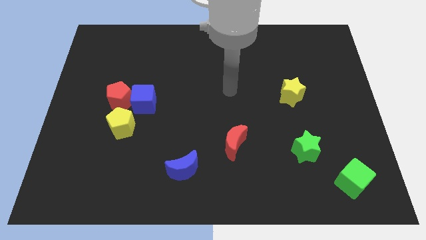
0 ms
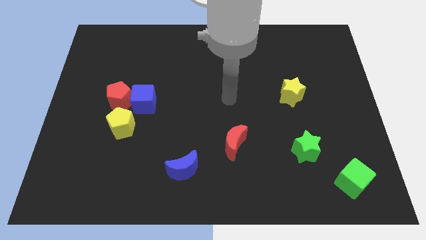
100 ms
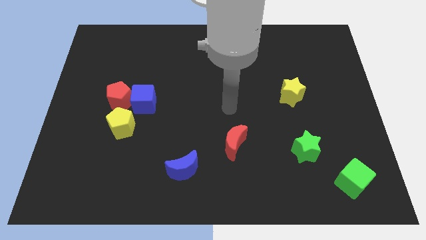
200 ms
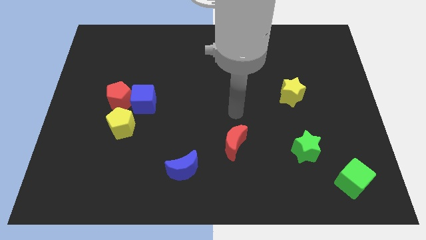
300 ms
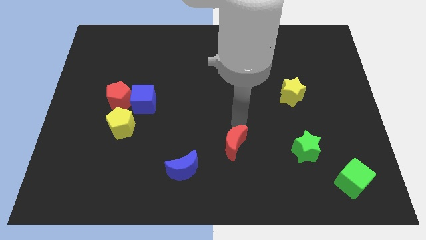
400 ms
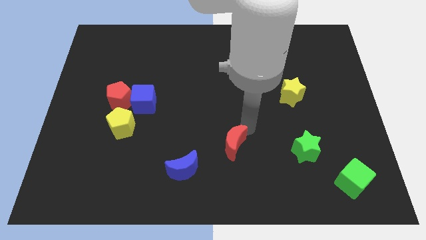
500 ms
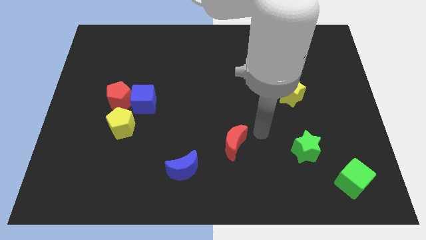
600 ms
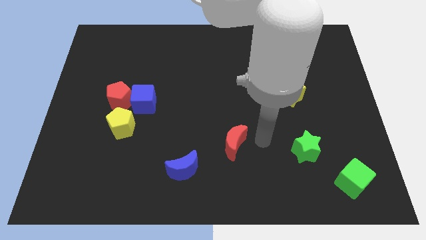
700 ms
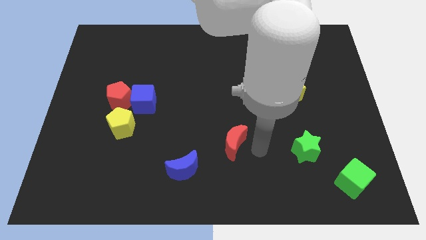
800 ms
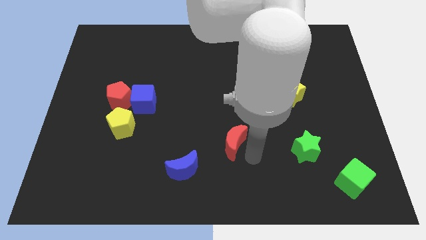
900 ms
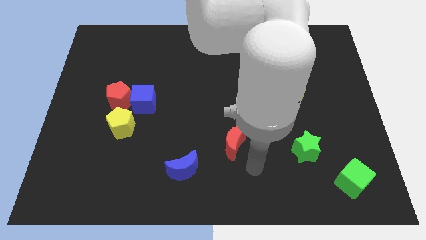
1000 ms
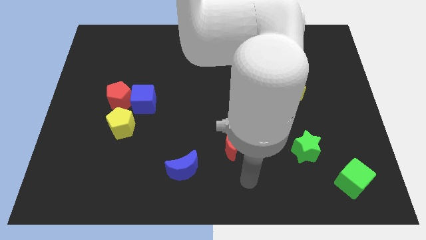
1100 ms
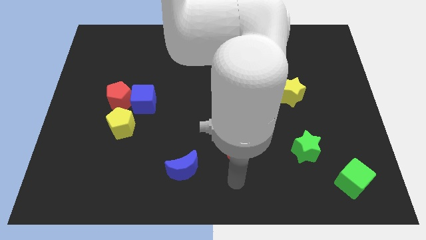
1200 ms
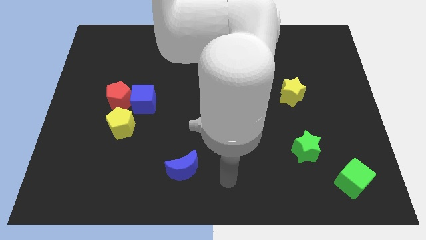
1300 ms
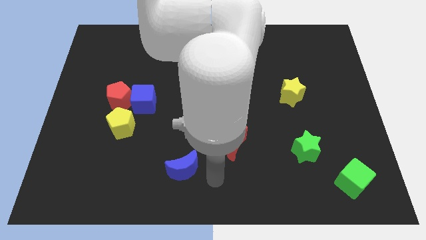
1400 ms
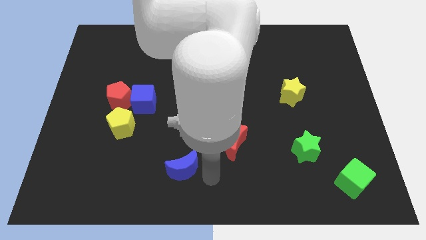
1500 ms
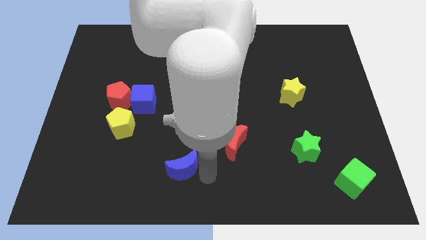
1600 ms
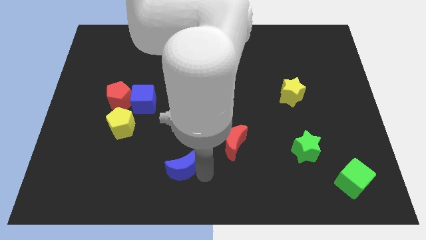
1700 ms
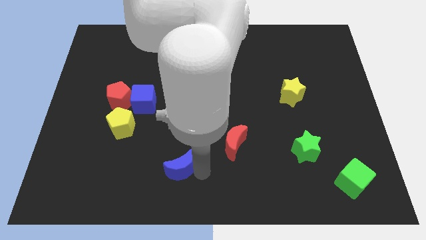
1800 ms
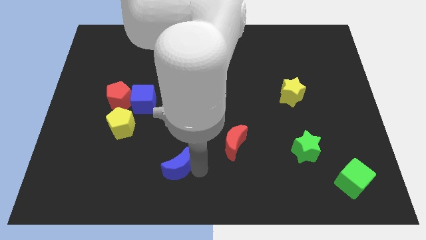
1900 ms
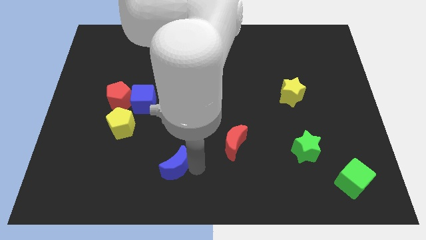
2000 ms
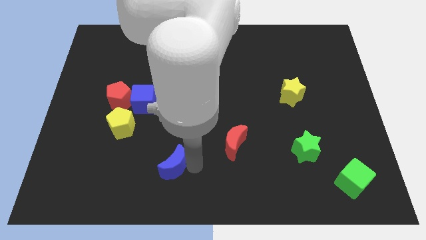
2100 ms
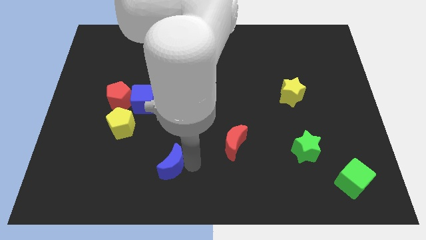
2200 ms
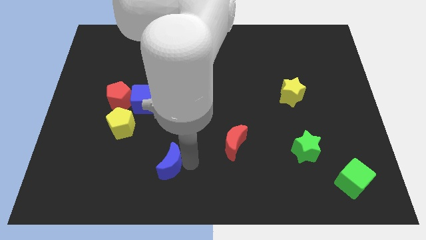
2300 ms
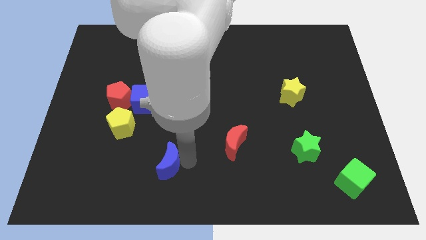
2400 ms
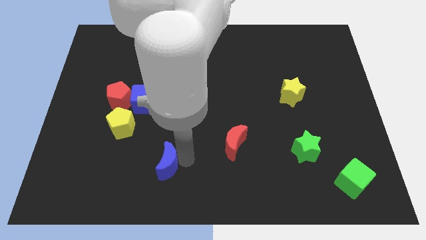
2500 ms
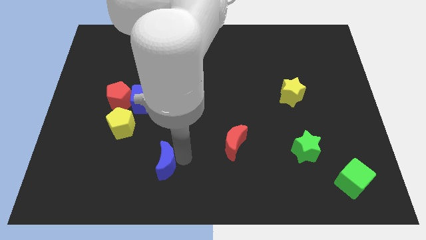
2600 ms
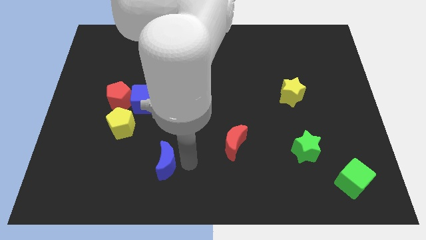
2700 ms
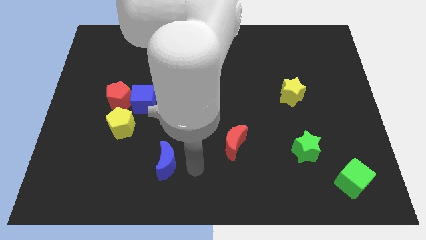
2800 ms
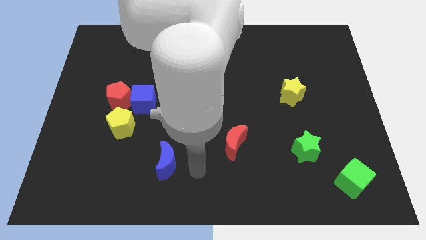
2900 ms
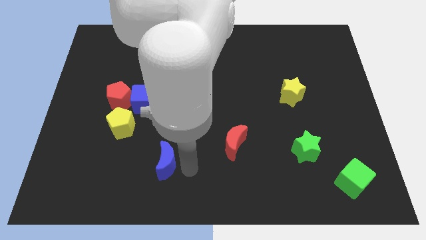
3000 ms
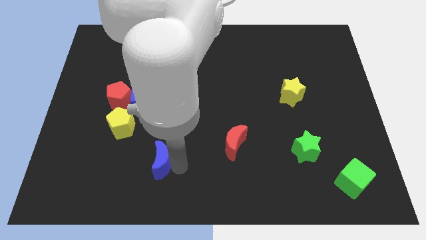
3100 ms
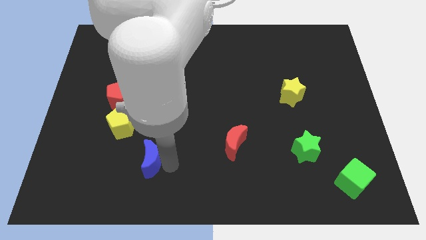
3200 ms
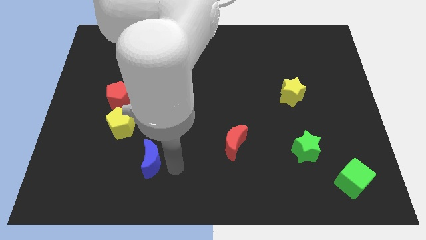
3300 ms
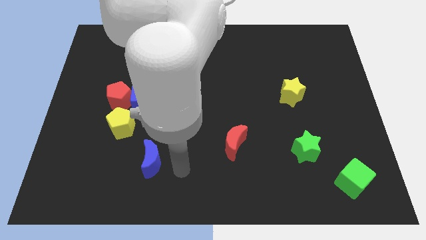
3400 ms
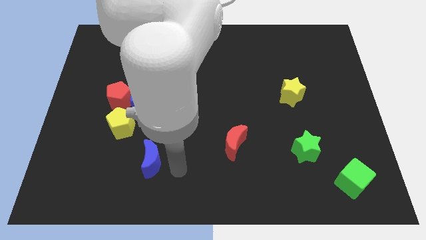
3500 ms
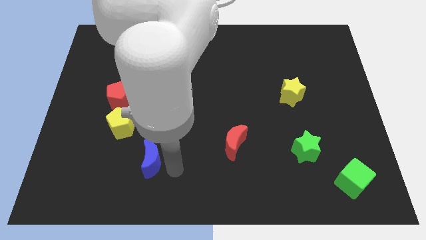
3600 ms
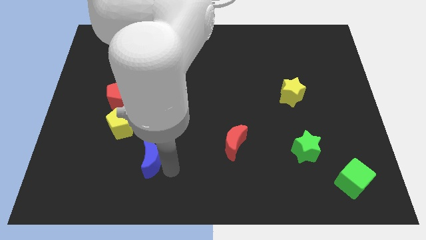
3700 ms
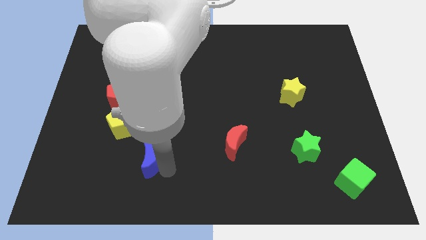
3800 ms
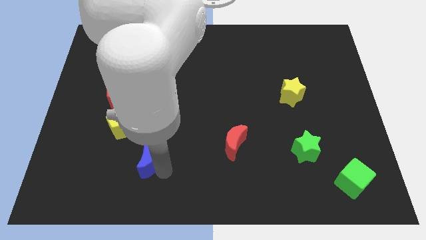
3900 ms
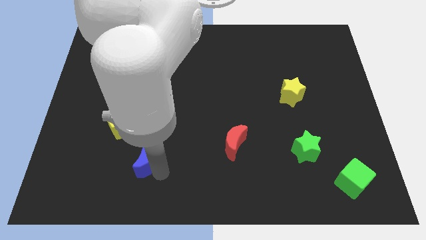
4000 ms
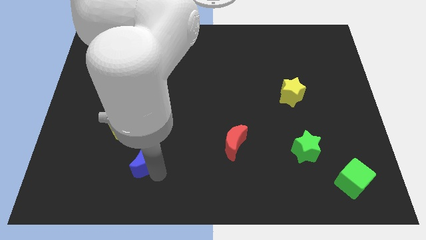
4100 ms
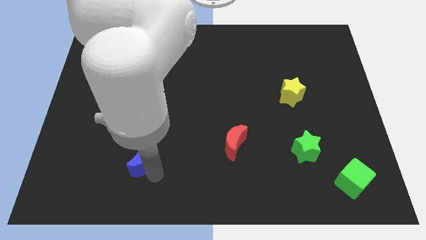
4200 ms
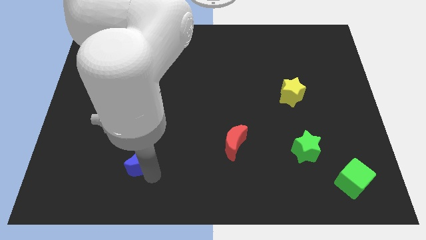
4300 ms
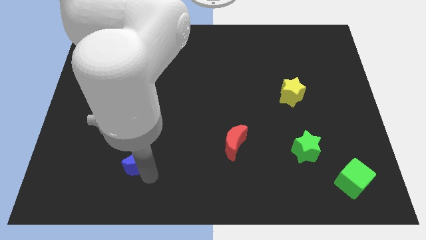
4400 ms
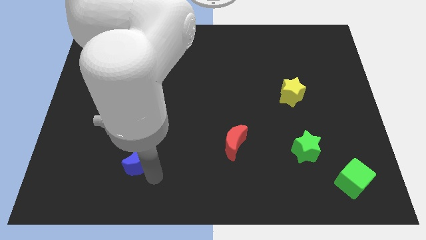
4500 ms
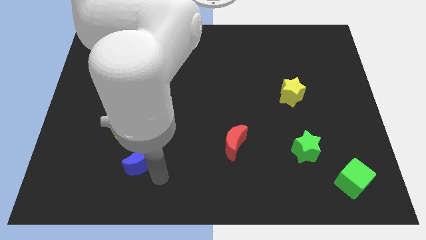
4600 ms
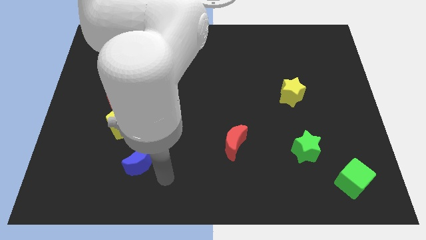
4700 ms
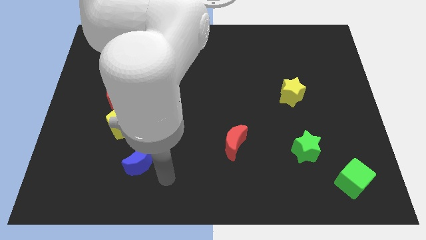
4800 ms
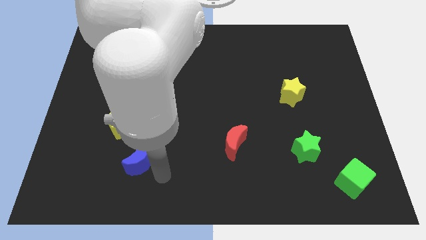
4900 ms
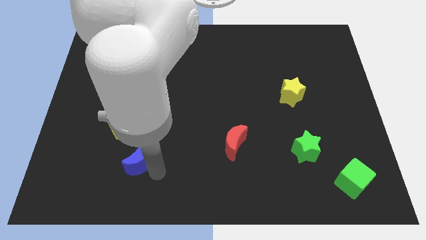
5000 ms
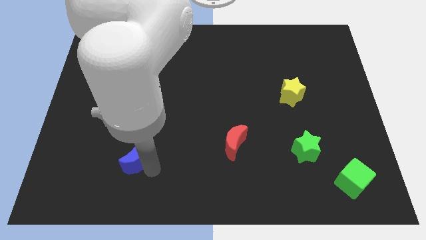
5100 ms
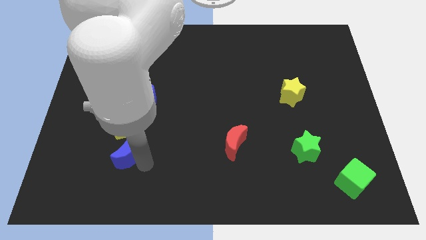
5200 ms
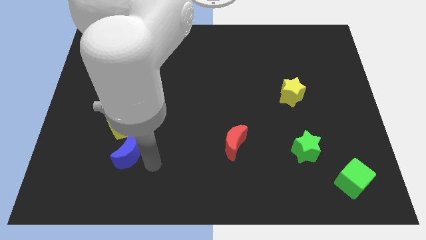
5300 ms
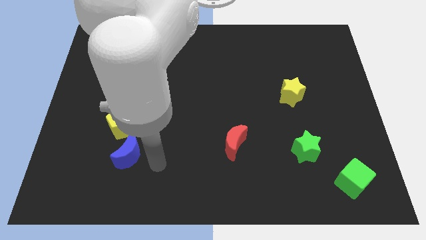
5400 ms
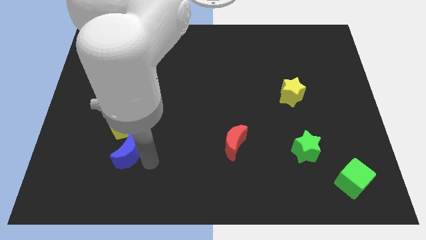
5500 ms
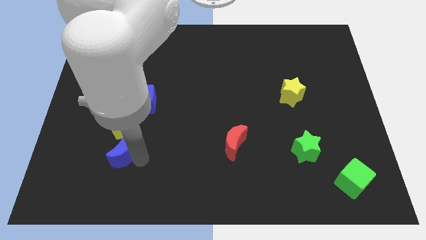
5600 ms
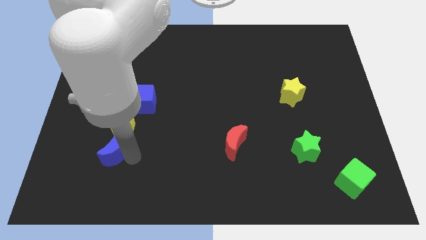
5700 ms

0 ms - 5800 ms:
move the blue moon to the bottom left of the yellow pentagon

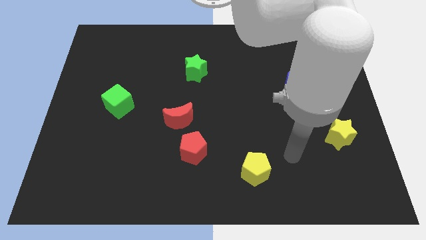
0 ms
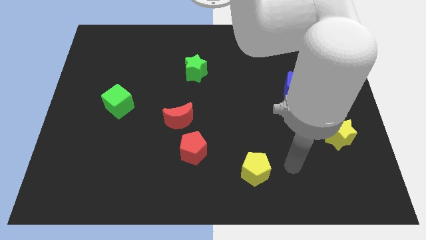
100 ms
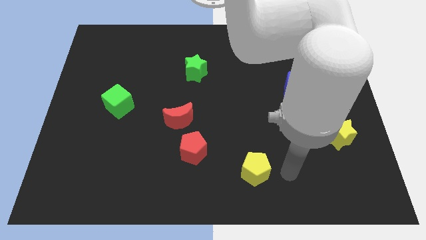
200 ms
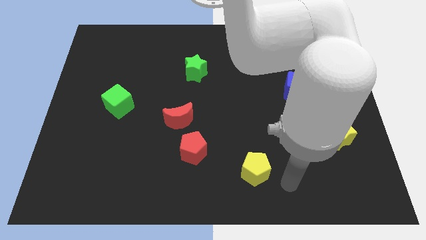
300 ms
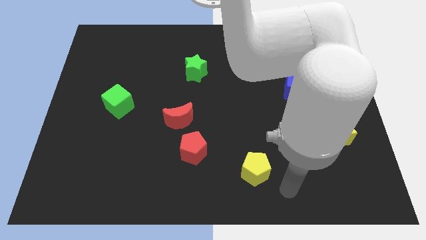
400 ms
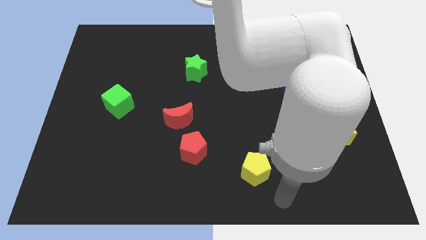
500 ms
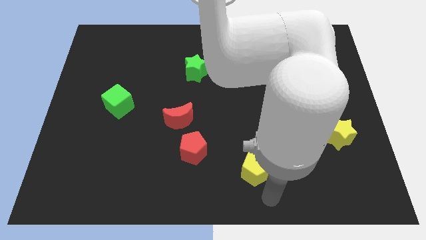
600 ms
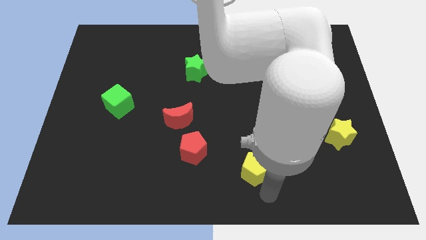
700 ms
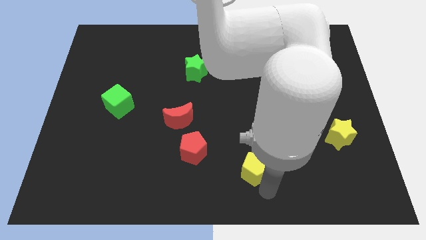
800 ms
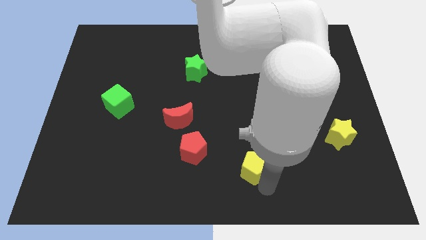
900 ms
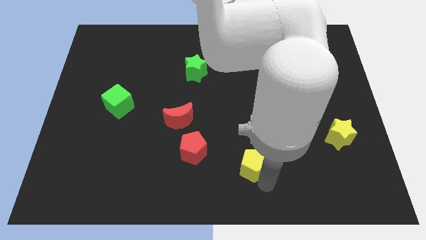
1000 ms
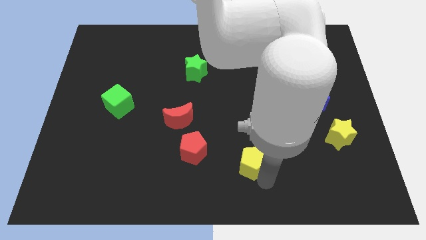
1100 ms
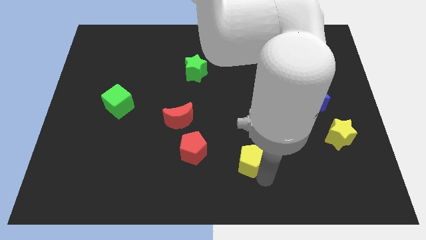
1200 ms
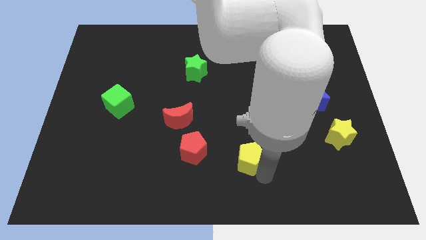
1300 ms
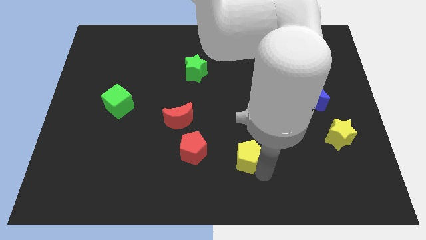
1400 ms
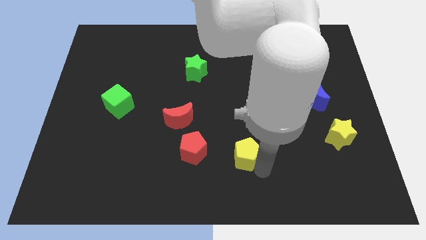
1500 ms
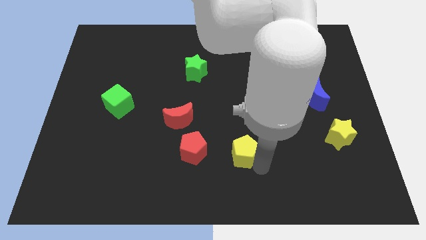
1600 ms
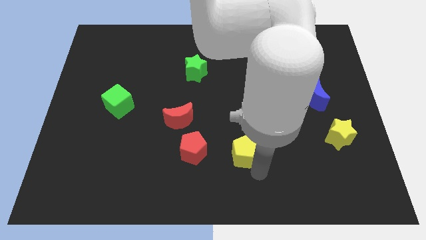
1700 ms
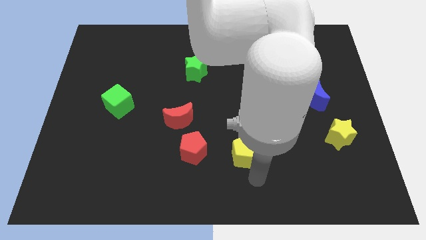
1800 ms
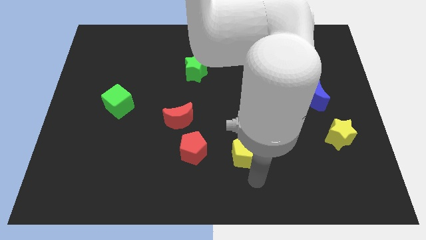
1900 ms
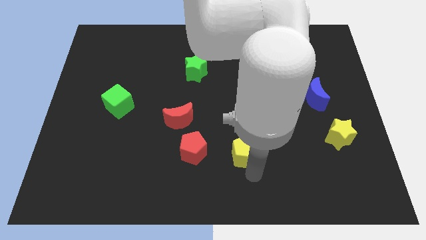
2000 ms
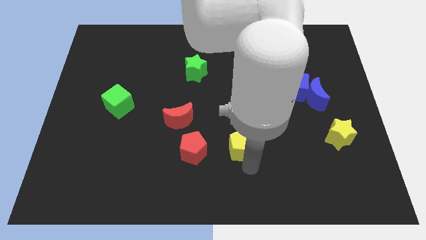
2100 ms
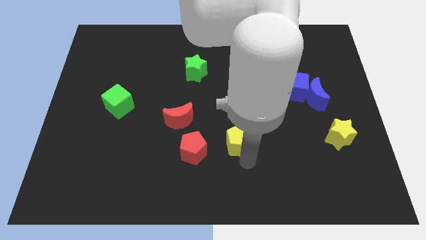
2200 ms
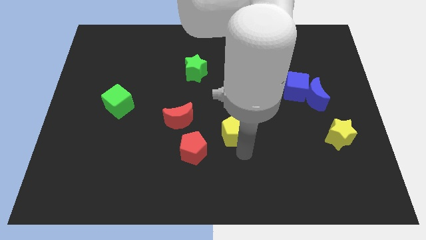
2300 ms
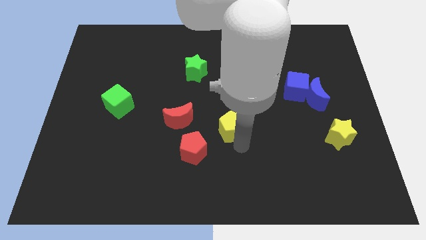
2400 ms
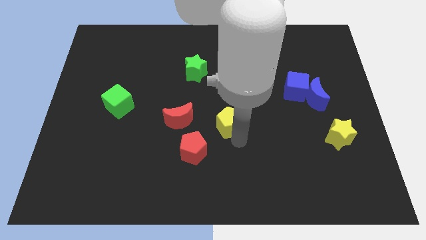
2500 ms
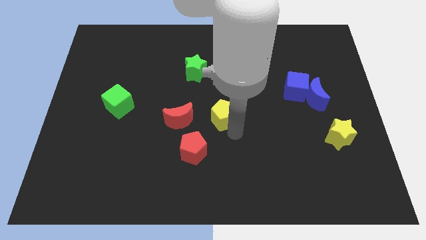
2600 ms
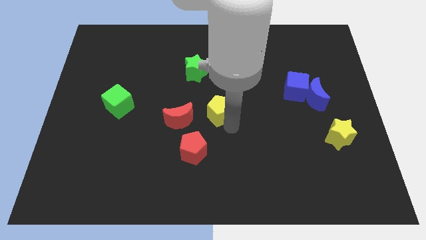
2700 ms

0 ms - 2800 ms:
move the yellow pentagon to the top right of the red moon
